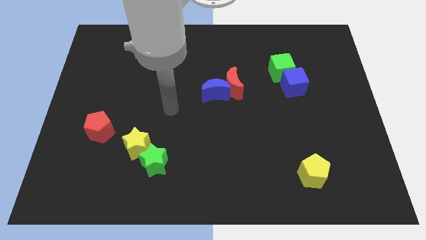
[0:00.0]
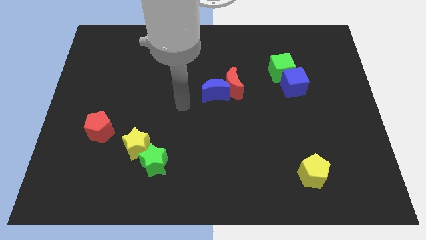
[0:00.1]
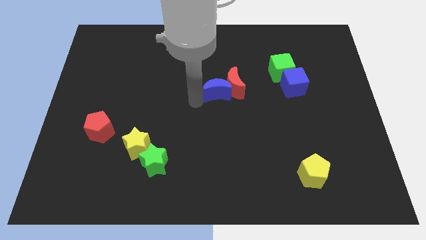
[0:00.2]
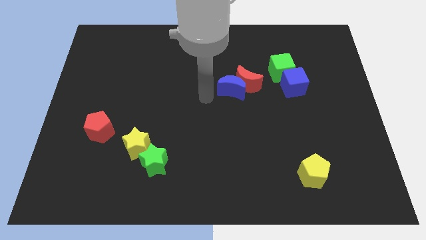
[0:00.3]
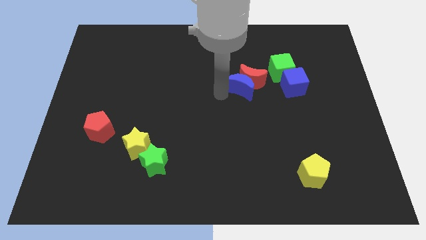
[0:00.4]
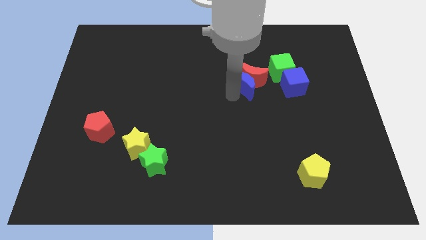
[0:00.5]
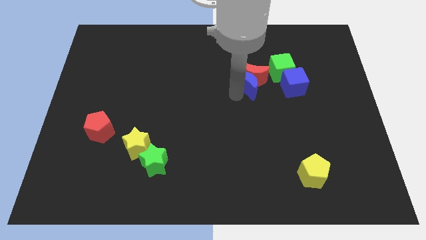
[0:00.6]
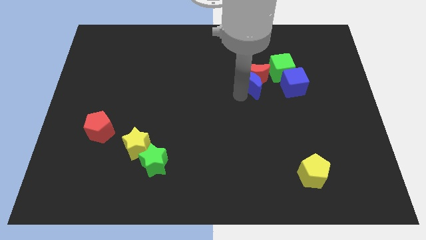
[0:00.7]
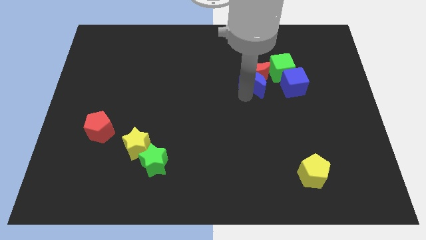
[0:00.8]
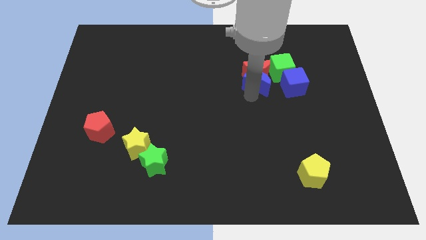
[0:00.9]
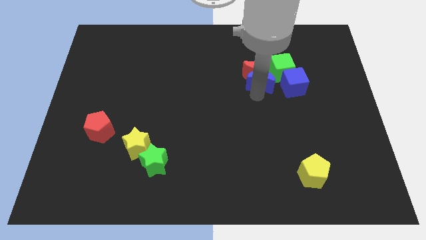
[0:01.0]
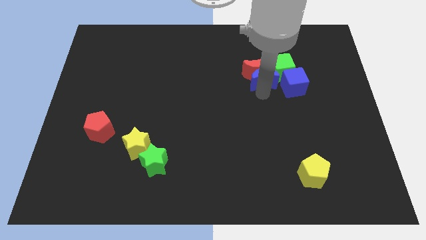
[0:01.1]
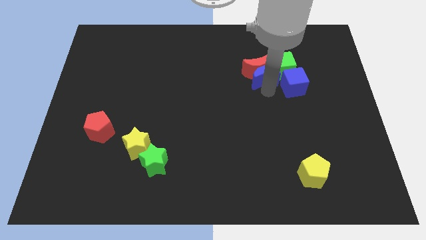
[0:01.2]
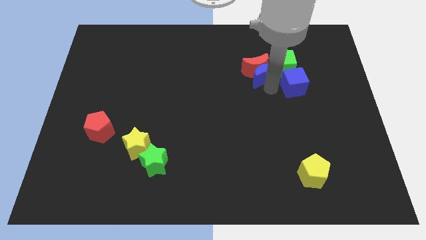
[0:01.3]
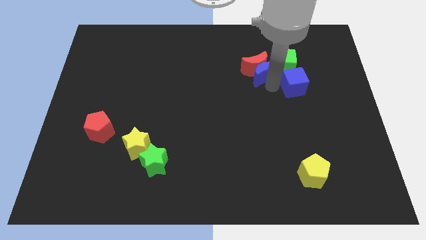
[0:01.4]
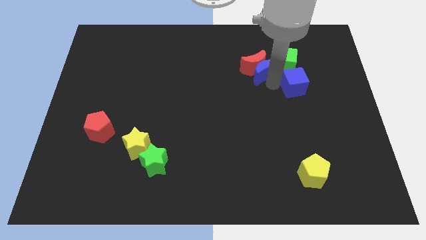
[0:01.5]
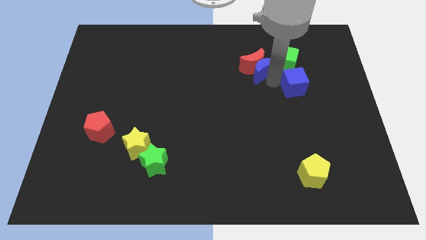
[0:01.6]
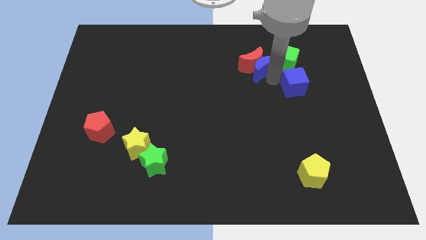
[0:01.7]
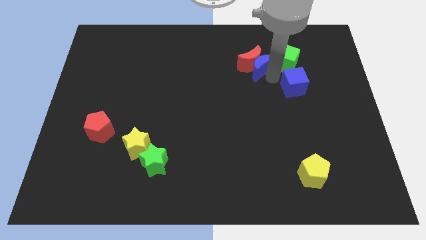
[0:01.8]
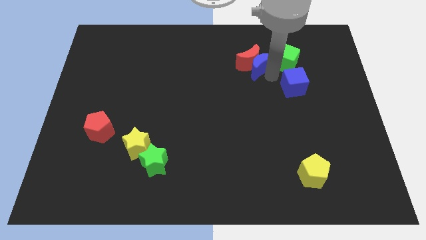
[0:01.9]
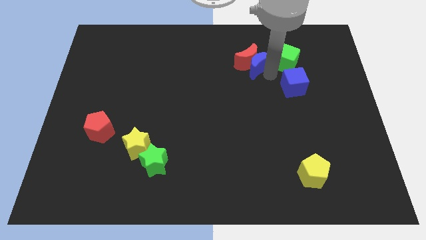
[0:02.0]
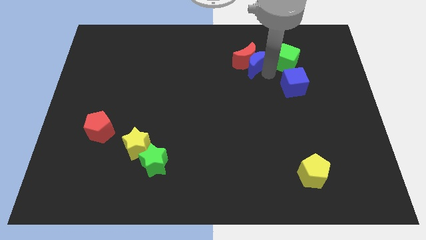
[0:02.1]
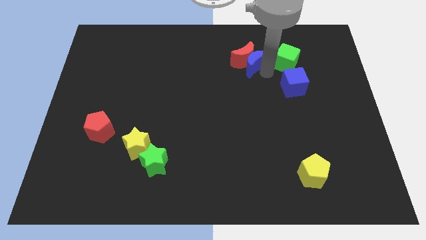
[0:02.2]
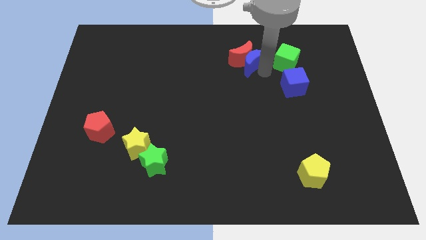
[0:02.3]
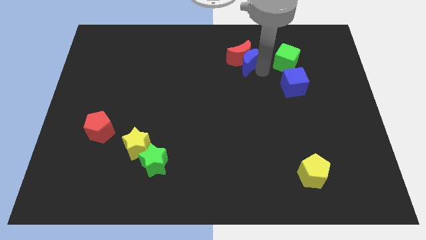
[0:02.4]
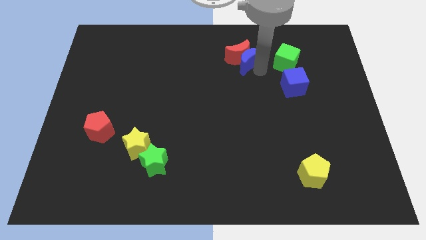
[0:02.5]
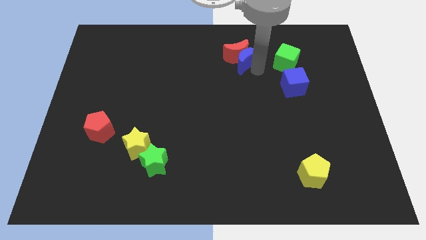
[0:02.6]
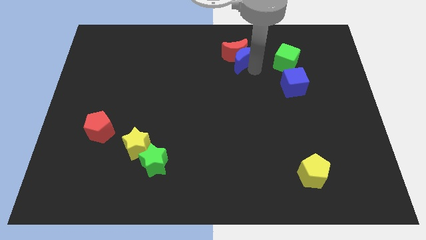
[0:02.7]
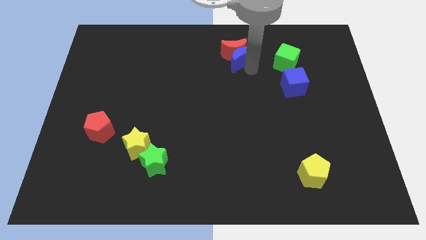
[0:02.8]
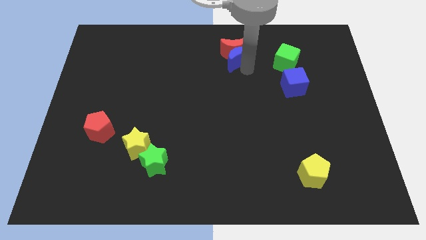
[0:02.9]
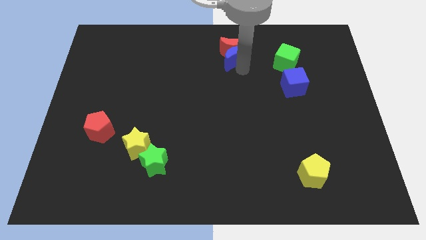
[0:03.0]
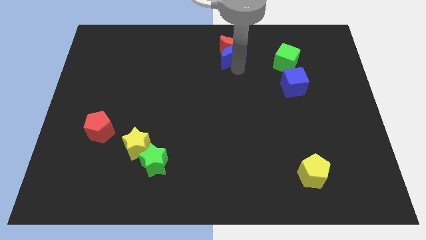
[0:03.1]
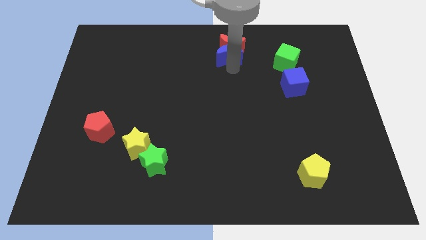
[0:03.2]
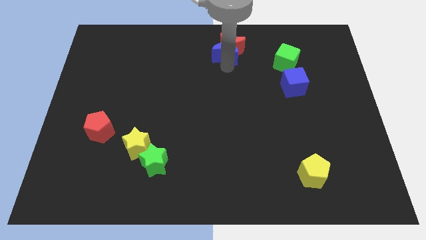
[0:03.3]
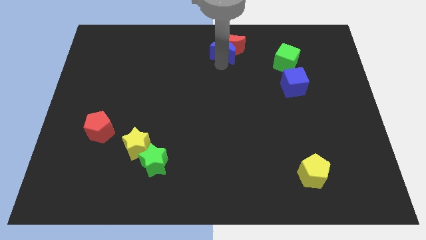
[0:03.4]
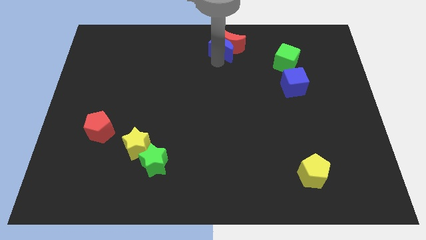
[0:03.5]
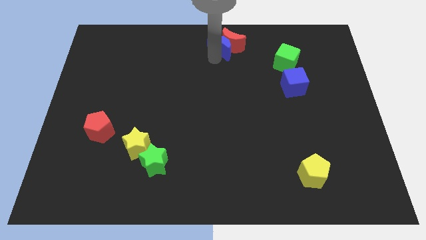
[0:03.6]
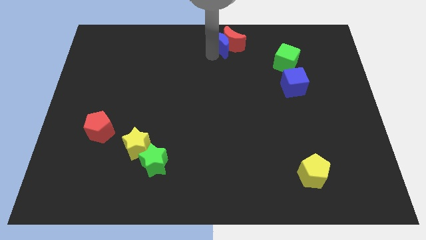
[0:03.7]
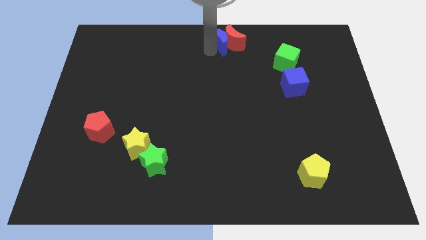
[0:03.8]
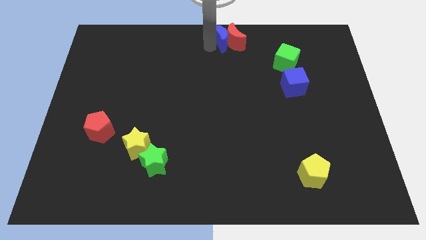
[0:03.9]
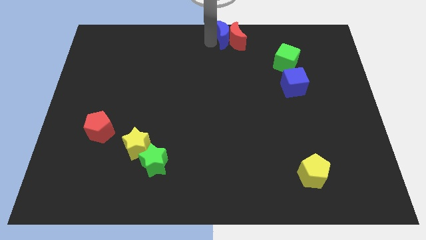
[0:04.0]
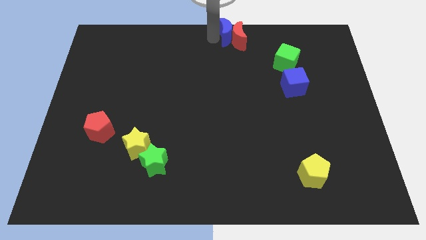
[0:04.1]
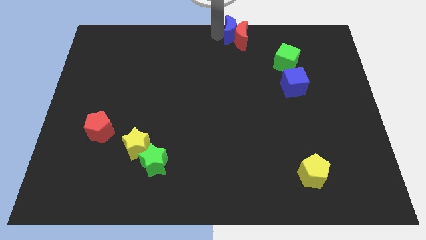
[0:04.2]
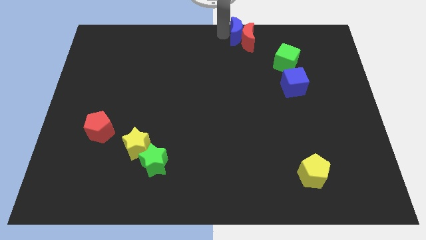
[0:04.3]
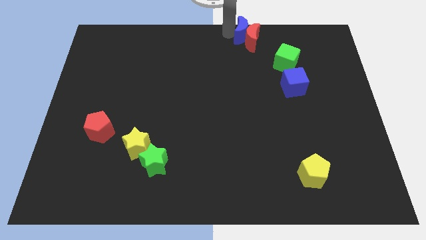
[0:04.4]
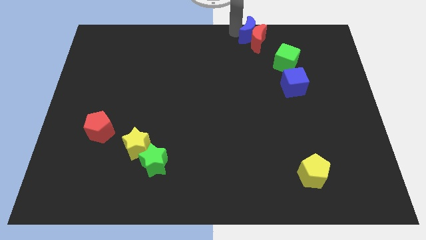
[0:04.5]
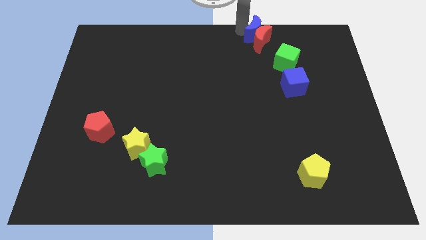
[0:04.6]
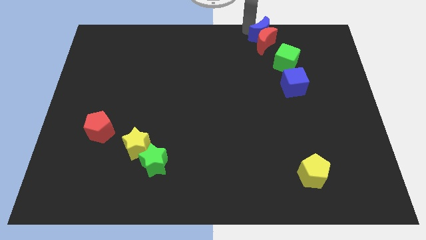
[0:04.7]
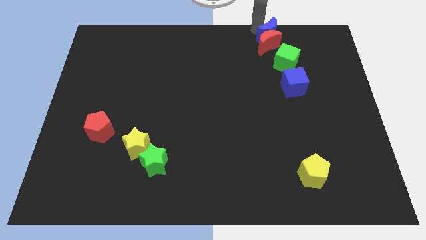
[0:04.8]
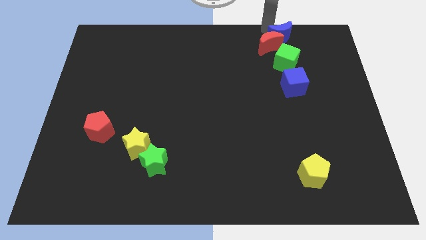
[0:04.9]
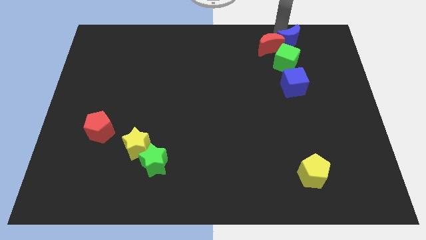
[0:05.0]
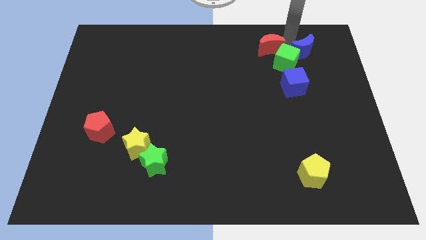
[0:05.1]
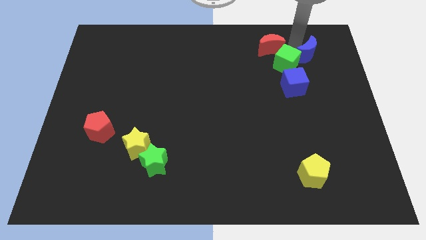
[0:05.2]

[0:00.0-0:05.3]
separate the red moon from the blue moon

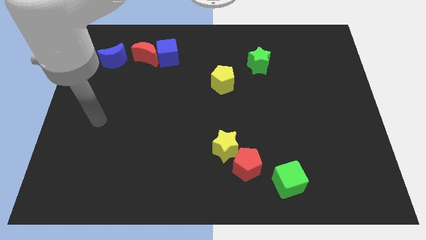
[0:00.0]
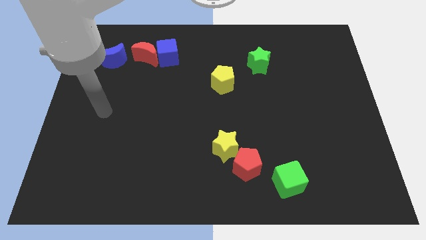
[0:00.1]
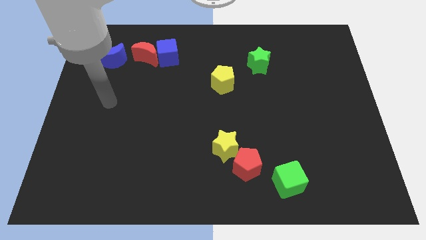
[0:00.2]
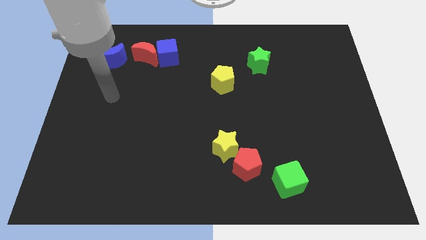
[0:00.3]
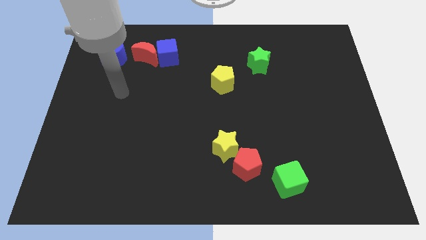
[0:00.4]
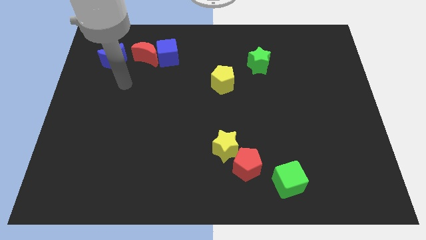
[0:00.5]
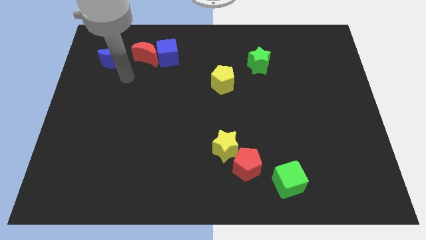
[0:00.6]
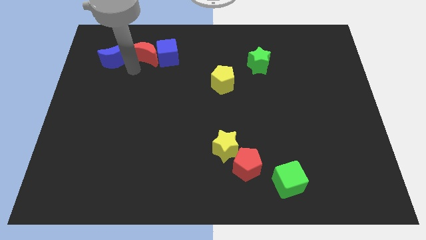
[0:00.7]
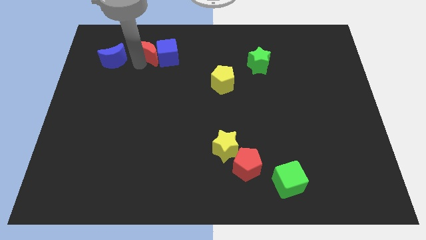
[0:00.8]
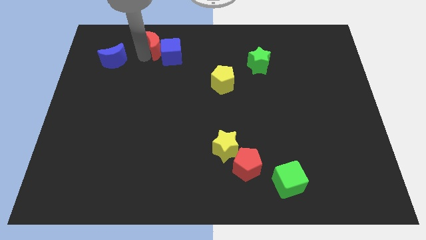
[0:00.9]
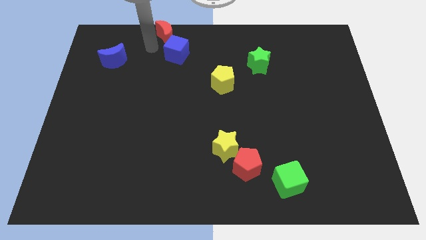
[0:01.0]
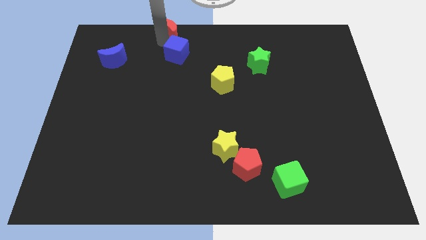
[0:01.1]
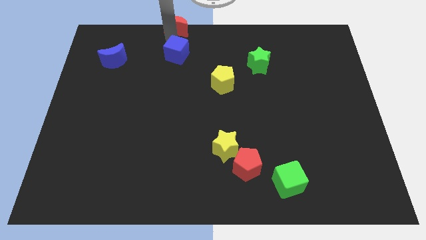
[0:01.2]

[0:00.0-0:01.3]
move the blue cube away from the red moon

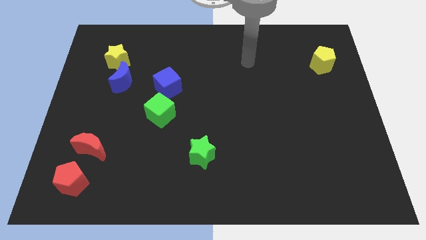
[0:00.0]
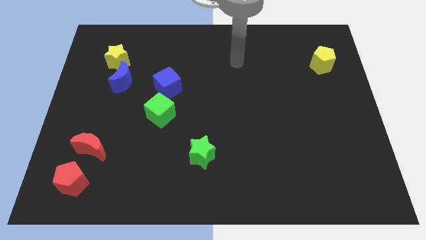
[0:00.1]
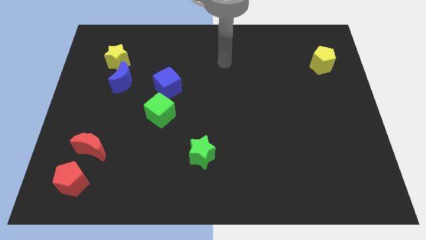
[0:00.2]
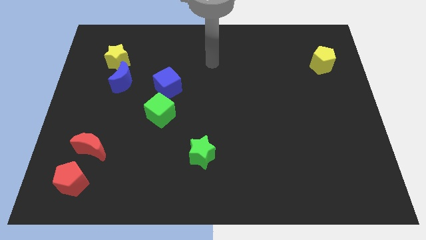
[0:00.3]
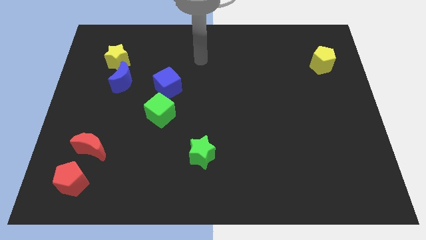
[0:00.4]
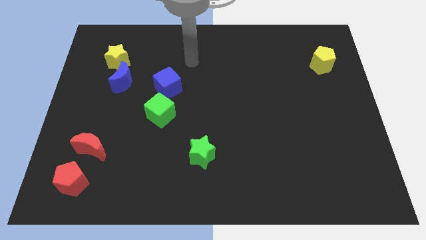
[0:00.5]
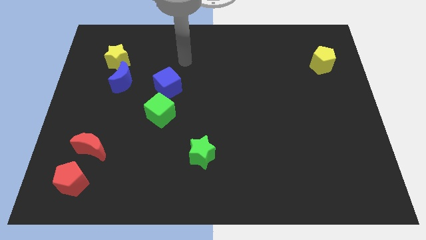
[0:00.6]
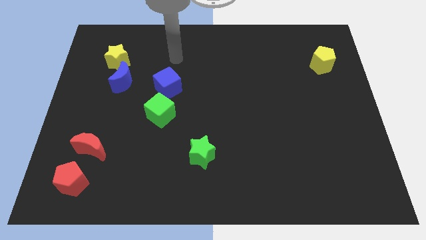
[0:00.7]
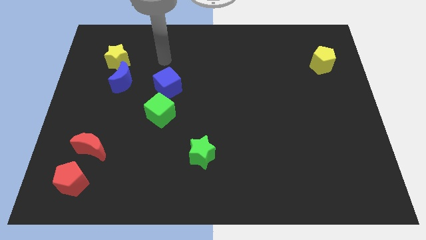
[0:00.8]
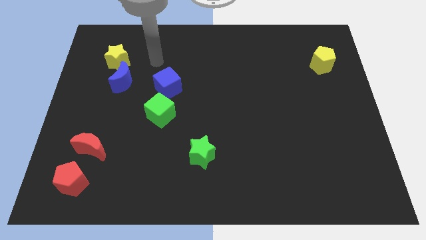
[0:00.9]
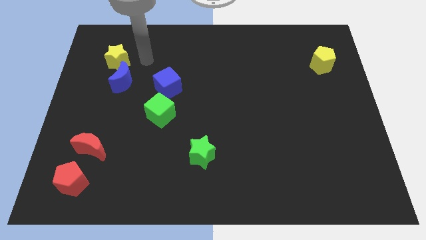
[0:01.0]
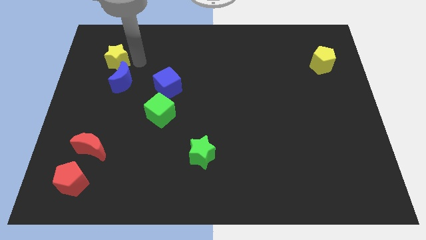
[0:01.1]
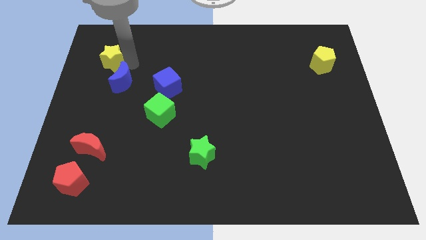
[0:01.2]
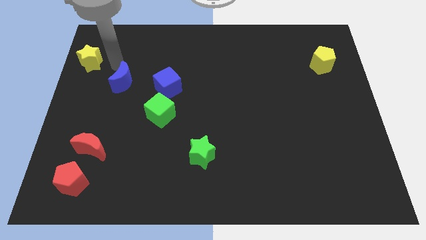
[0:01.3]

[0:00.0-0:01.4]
separate the blue moon from the yellow star

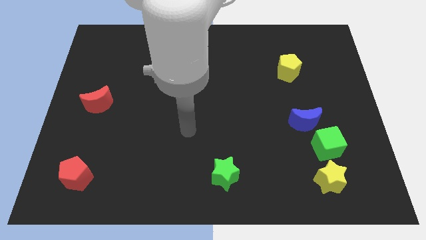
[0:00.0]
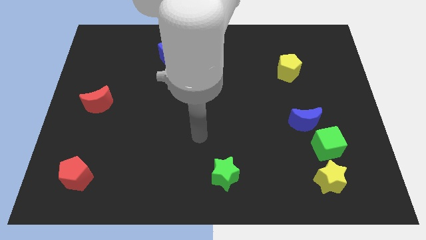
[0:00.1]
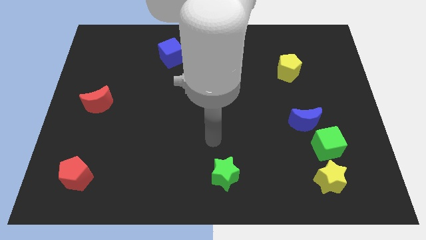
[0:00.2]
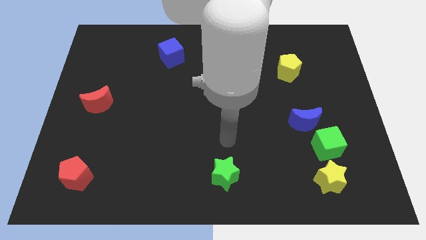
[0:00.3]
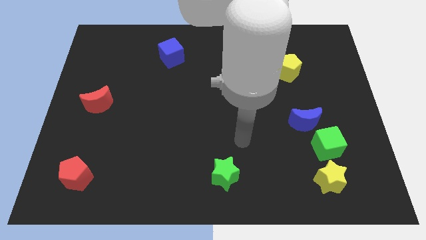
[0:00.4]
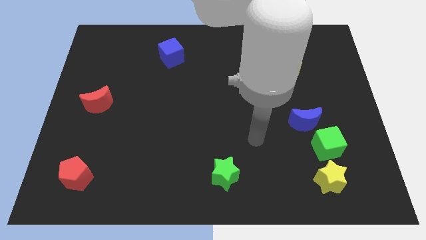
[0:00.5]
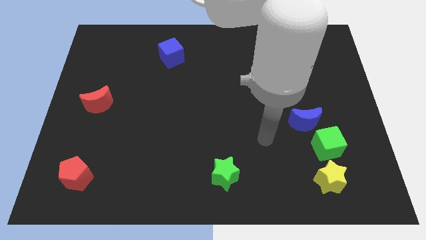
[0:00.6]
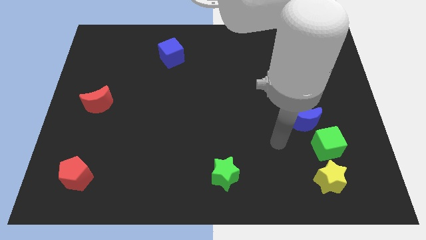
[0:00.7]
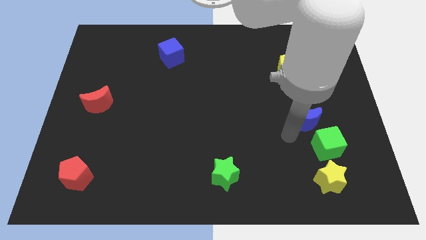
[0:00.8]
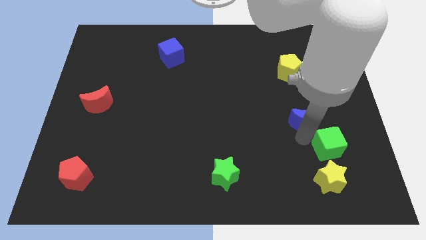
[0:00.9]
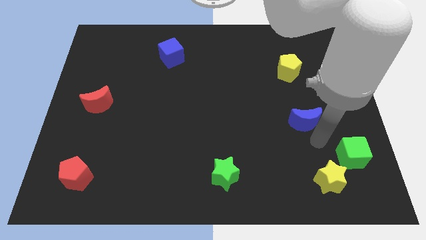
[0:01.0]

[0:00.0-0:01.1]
move the blue moon away from the green cube

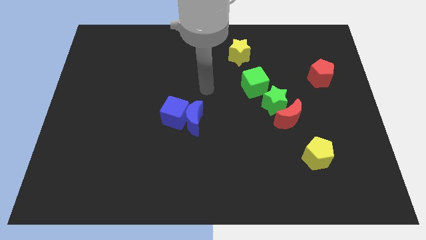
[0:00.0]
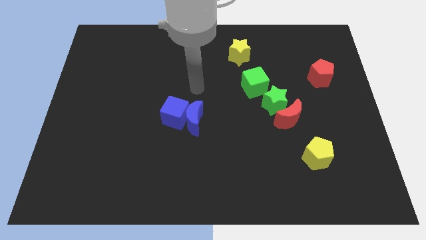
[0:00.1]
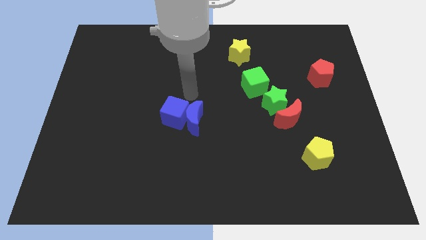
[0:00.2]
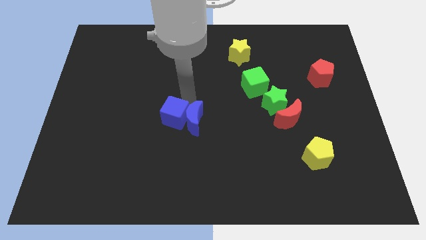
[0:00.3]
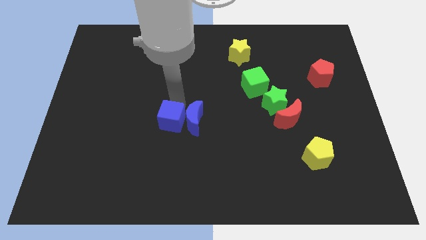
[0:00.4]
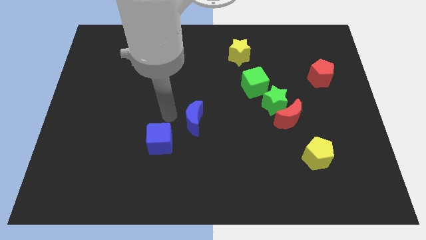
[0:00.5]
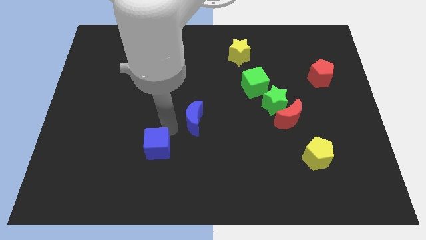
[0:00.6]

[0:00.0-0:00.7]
separate the blue moon from the blue cube
